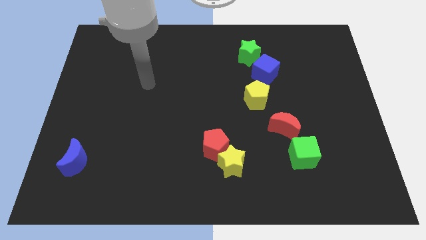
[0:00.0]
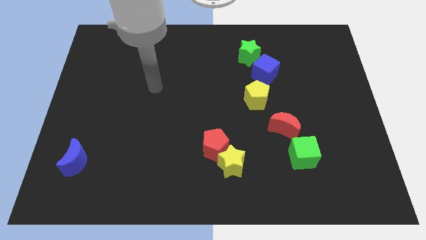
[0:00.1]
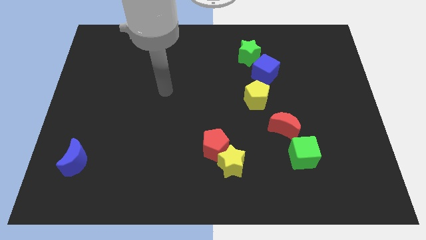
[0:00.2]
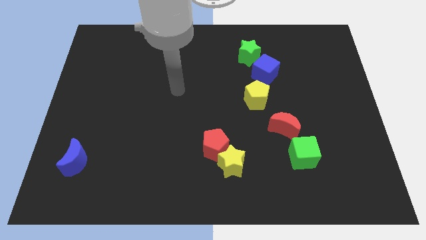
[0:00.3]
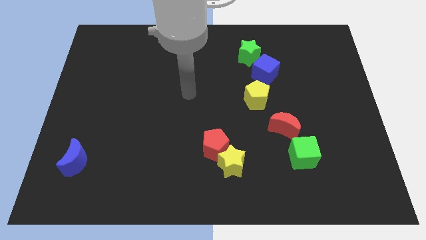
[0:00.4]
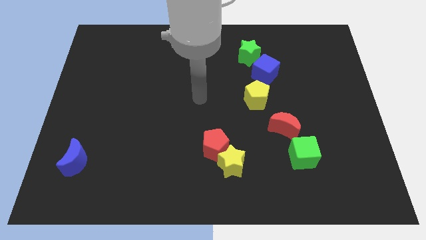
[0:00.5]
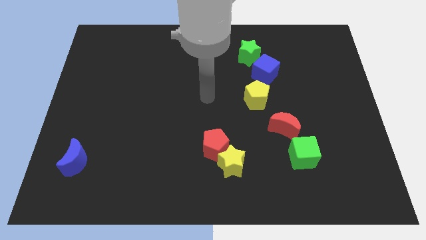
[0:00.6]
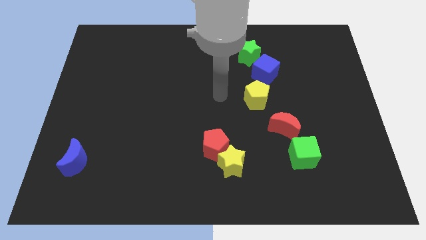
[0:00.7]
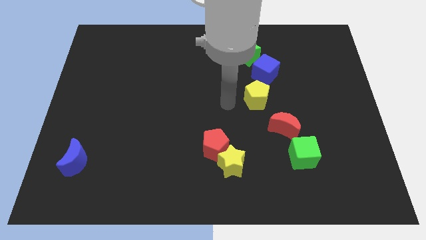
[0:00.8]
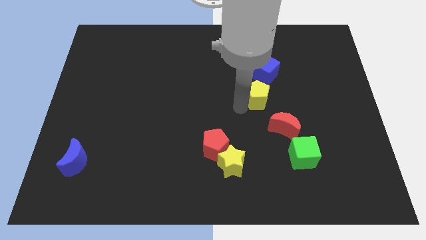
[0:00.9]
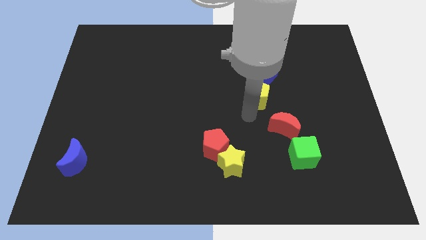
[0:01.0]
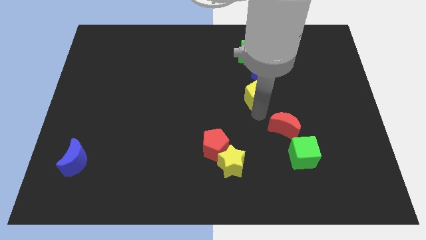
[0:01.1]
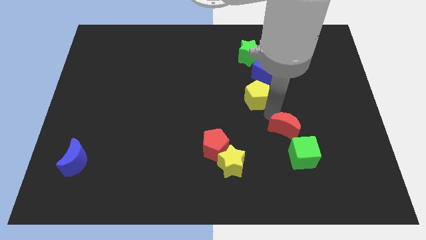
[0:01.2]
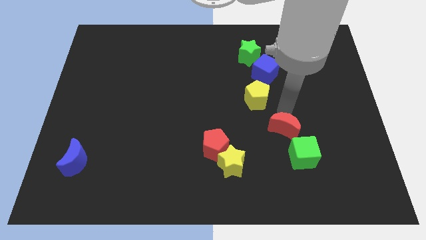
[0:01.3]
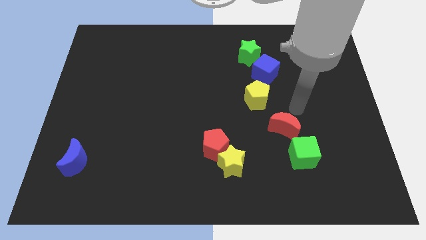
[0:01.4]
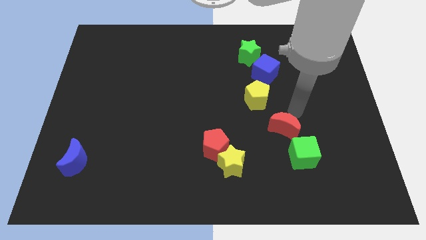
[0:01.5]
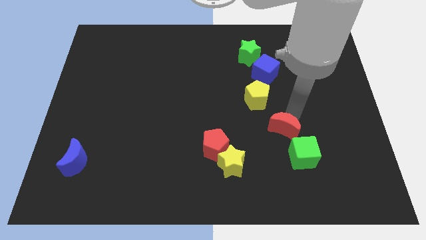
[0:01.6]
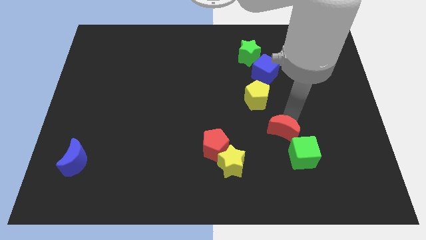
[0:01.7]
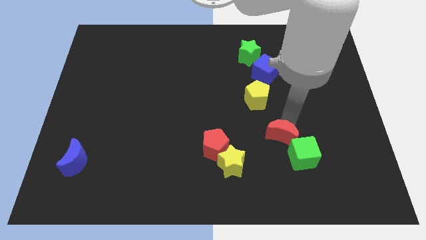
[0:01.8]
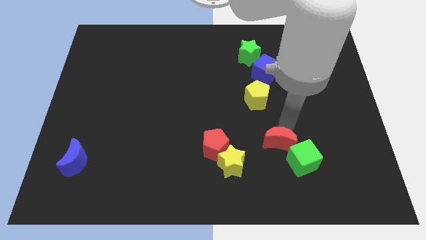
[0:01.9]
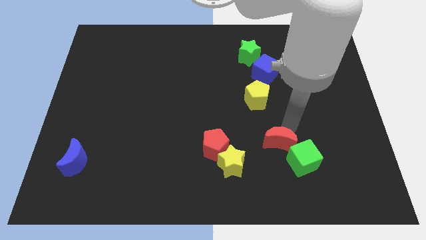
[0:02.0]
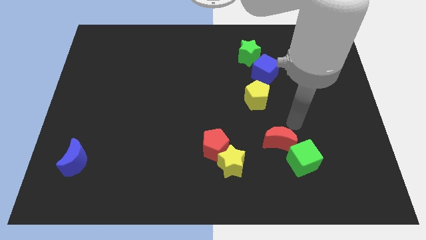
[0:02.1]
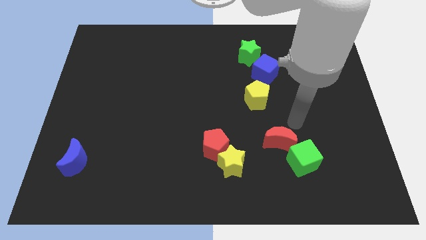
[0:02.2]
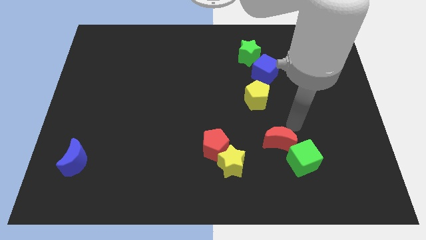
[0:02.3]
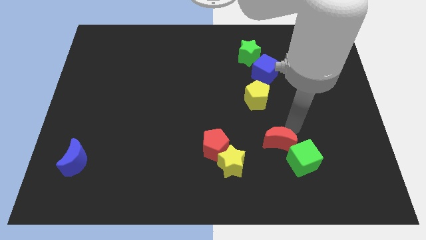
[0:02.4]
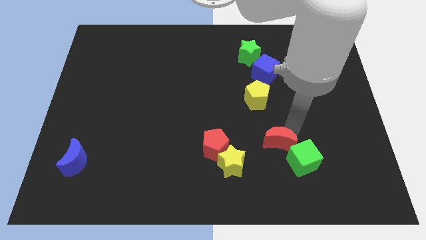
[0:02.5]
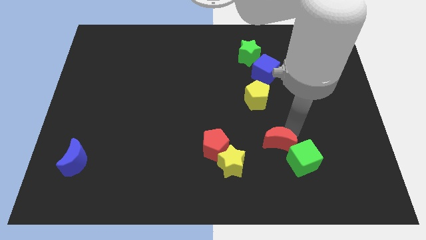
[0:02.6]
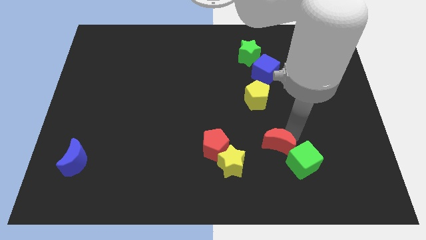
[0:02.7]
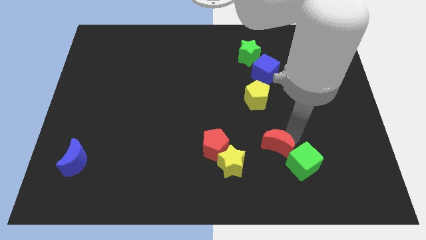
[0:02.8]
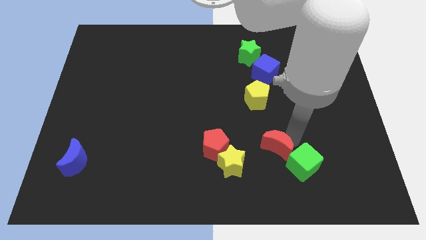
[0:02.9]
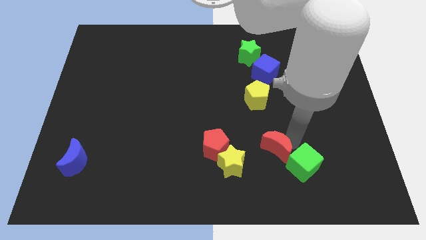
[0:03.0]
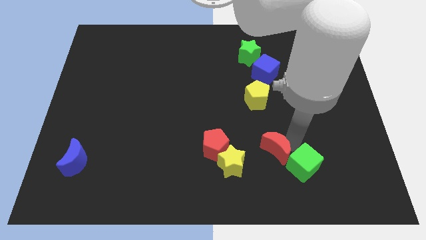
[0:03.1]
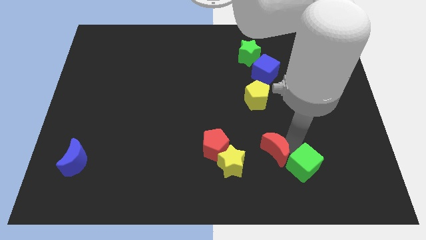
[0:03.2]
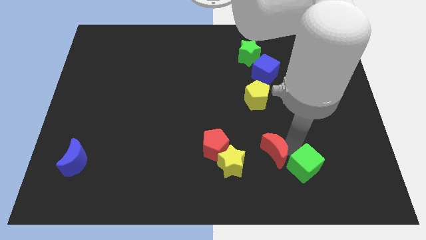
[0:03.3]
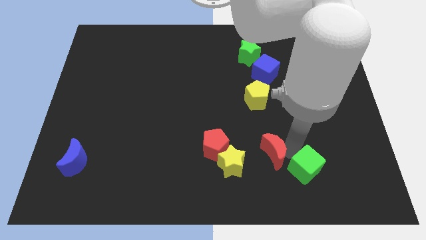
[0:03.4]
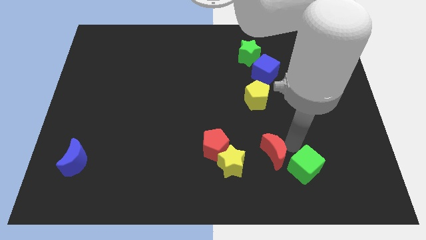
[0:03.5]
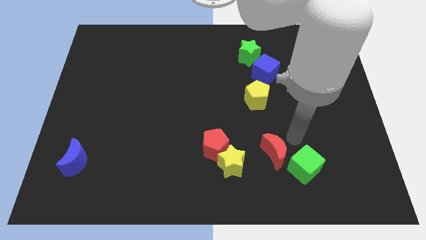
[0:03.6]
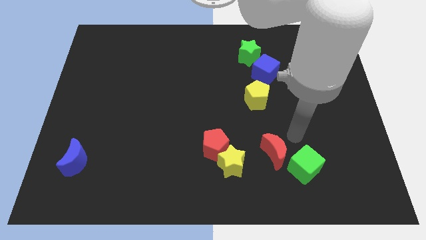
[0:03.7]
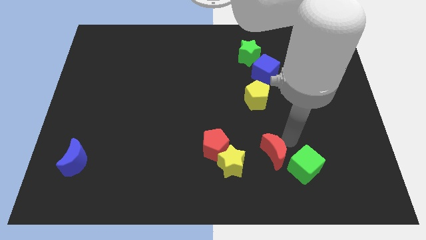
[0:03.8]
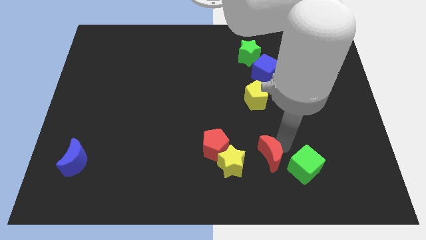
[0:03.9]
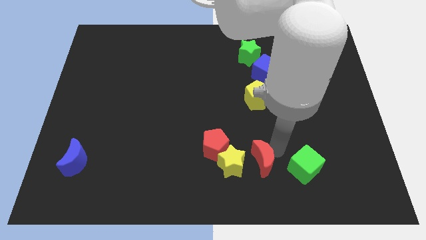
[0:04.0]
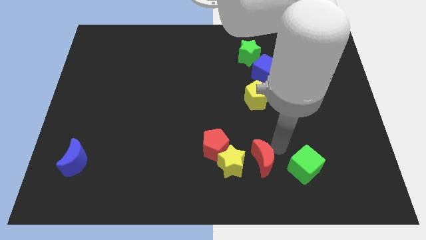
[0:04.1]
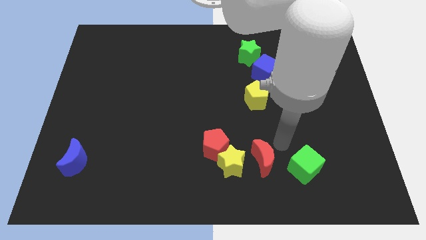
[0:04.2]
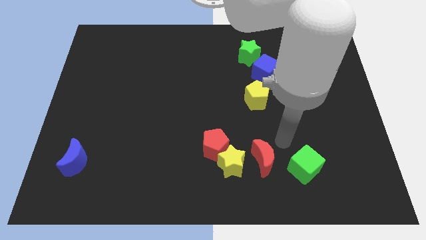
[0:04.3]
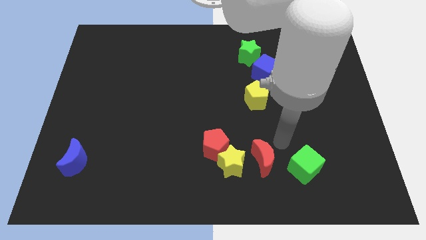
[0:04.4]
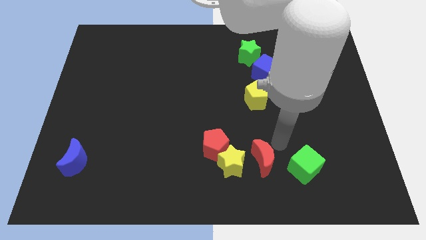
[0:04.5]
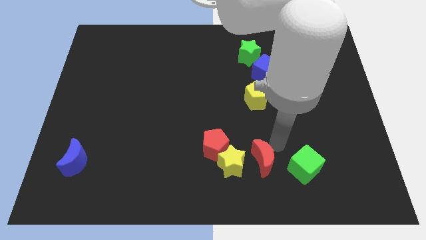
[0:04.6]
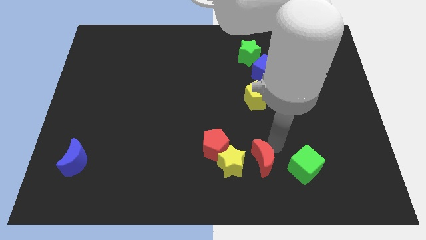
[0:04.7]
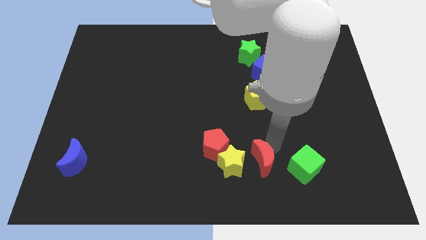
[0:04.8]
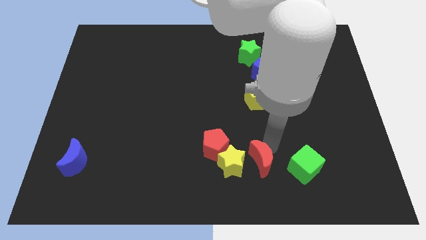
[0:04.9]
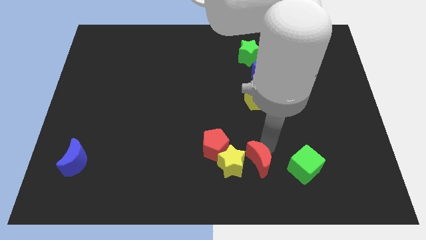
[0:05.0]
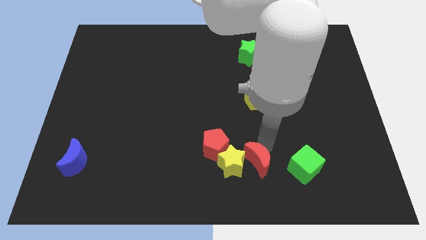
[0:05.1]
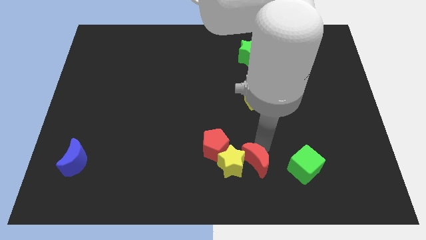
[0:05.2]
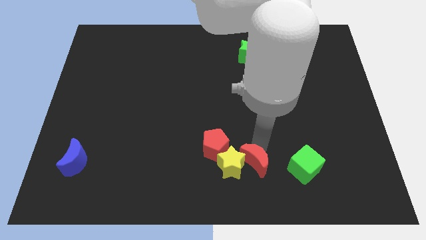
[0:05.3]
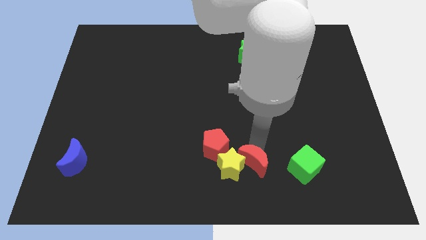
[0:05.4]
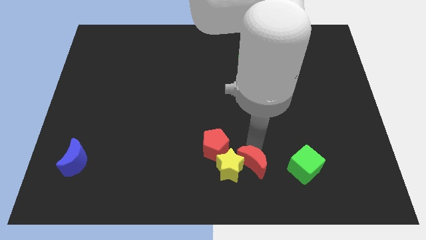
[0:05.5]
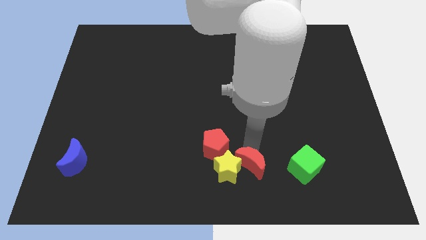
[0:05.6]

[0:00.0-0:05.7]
push the red moon to the bottom side

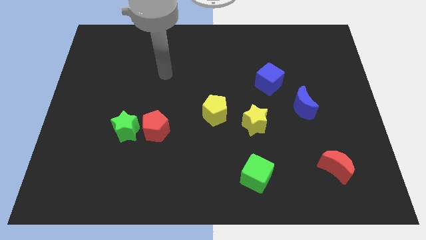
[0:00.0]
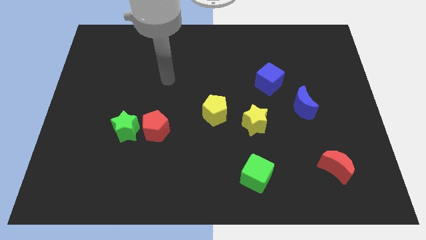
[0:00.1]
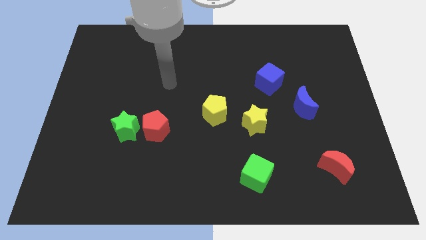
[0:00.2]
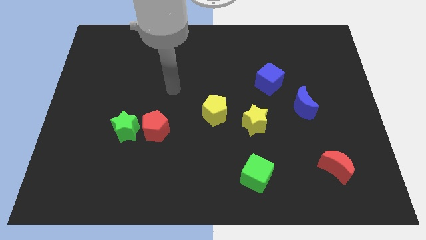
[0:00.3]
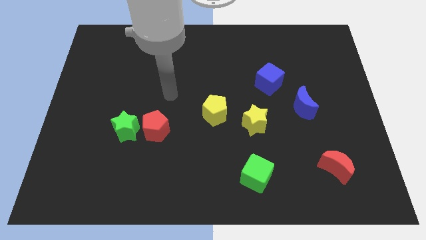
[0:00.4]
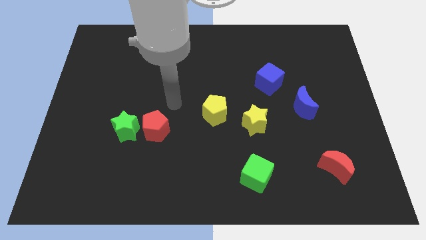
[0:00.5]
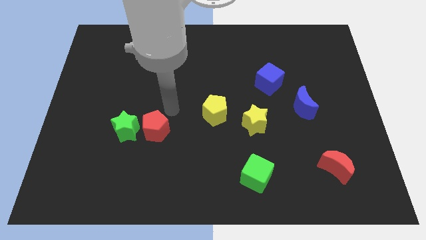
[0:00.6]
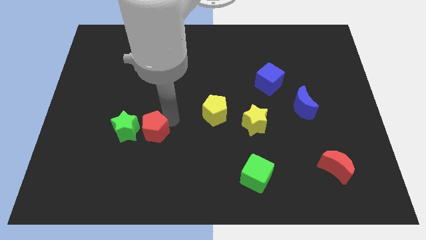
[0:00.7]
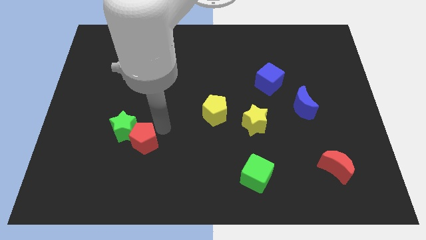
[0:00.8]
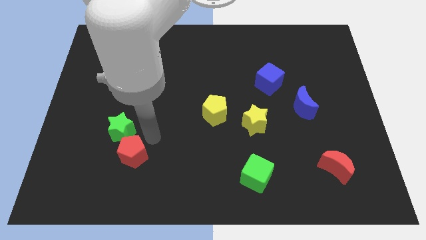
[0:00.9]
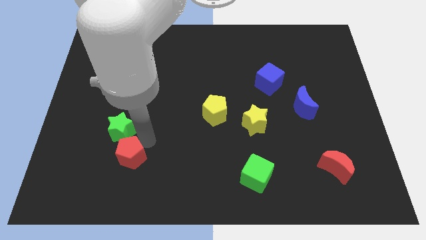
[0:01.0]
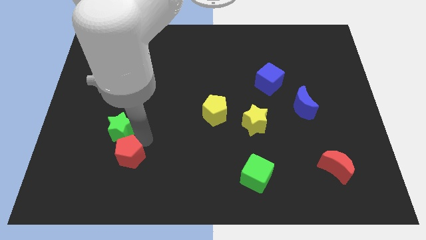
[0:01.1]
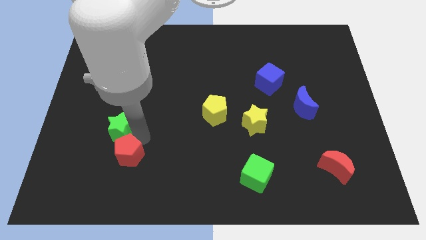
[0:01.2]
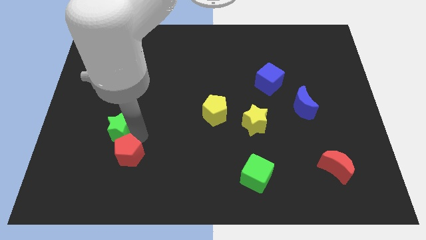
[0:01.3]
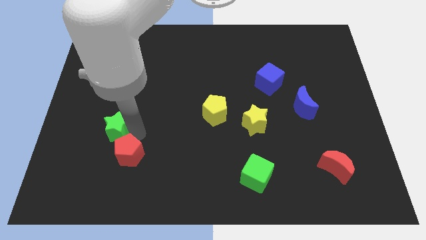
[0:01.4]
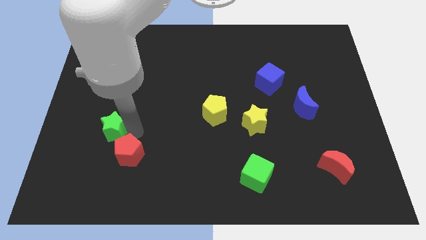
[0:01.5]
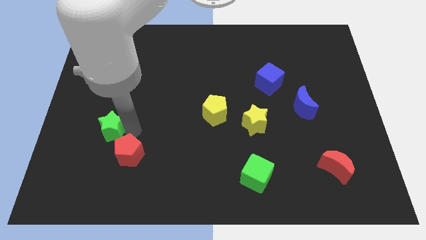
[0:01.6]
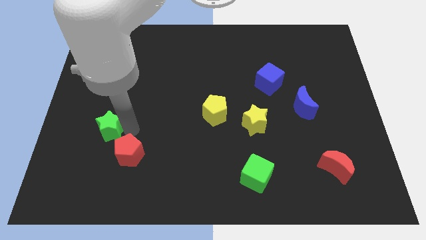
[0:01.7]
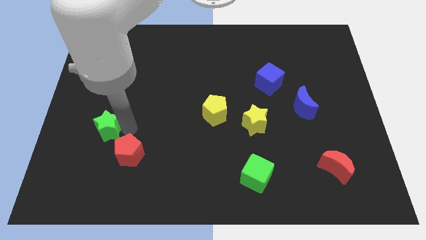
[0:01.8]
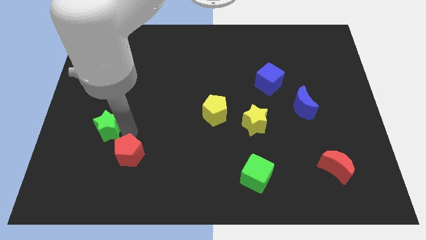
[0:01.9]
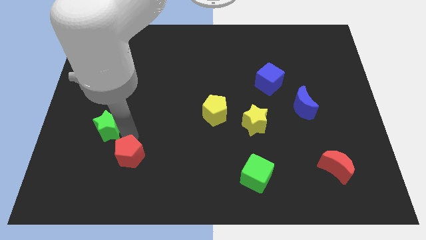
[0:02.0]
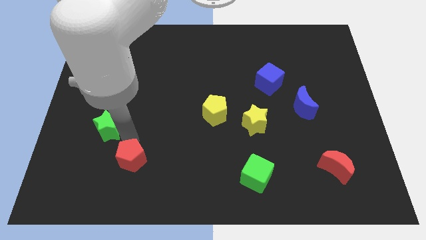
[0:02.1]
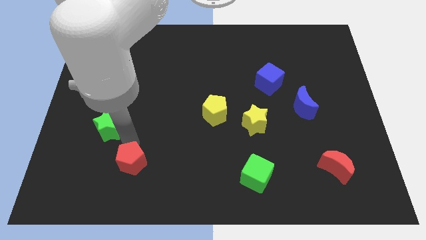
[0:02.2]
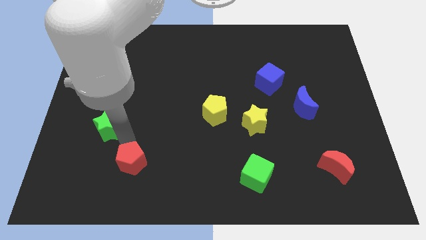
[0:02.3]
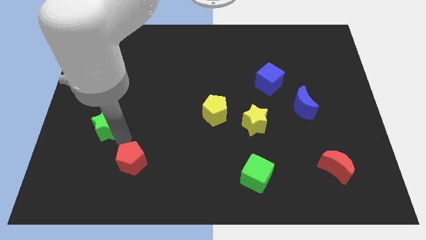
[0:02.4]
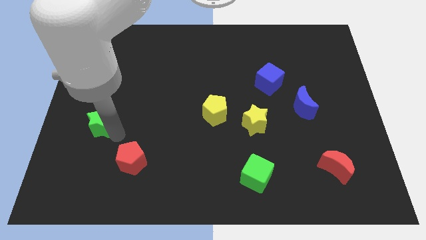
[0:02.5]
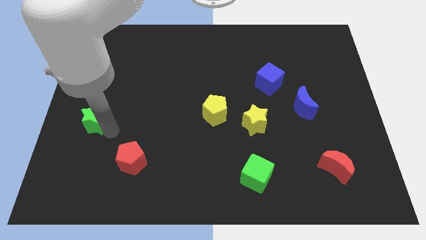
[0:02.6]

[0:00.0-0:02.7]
move the green star to the center left
